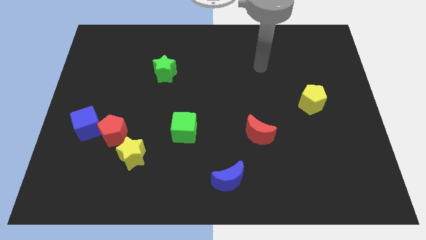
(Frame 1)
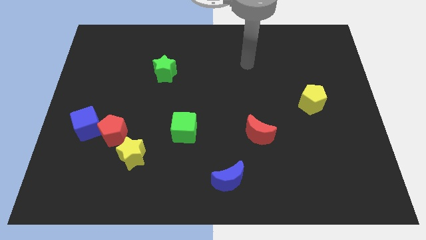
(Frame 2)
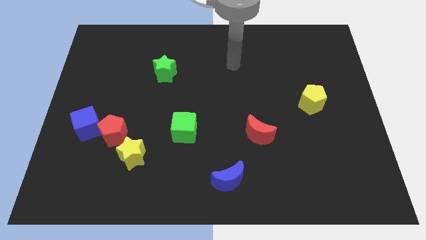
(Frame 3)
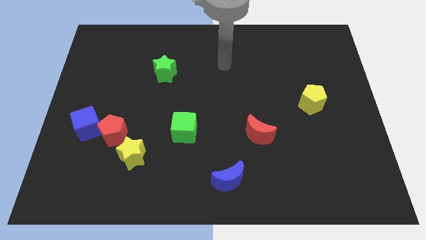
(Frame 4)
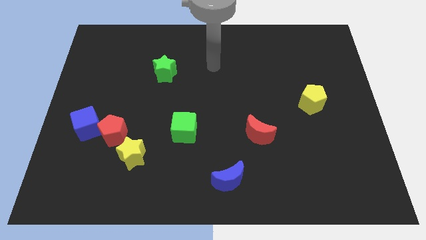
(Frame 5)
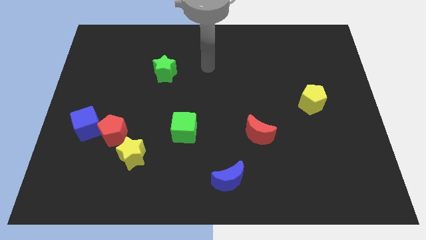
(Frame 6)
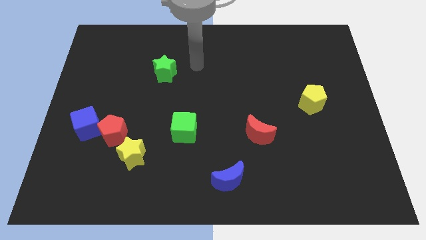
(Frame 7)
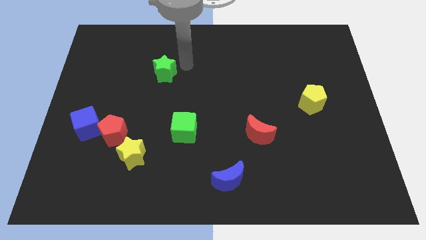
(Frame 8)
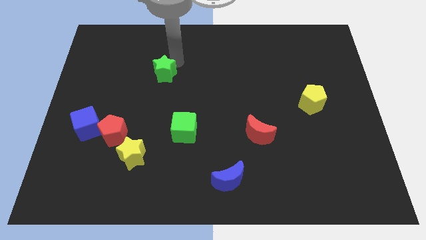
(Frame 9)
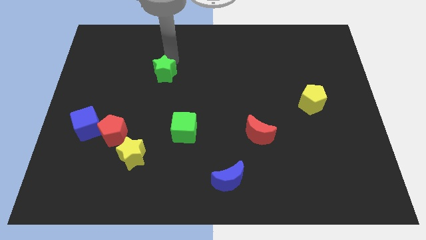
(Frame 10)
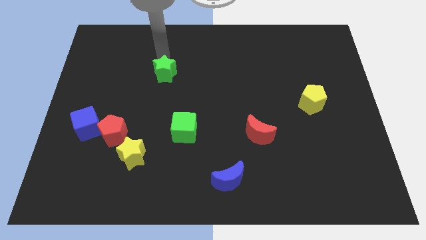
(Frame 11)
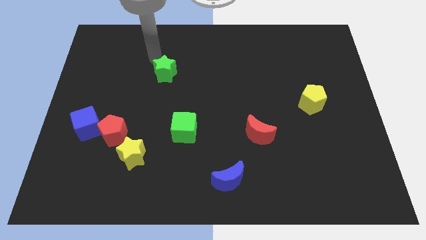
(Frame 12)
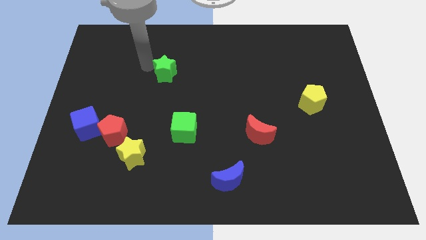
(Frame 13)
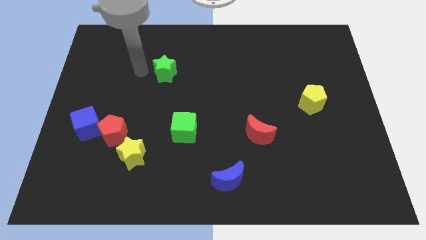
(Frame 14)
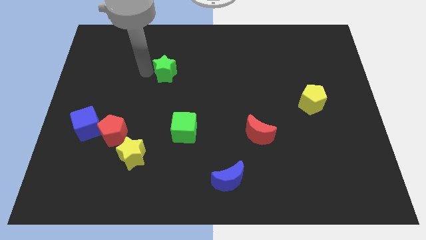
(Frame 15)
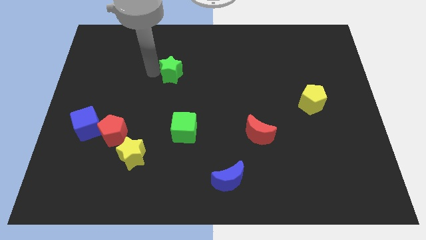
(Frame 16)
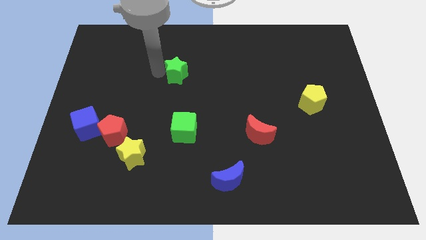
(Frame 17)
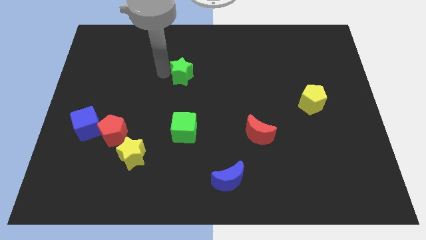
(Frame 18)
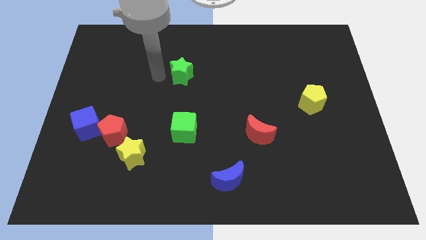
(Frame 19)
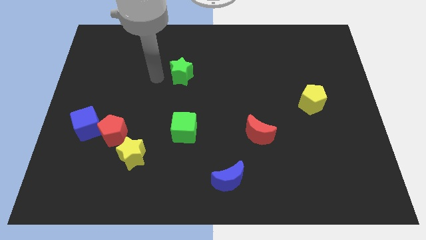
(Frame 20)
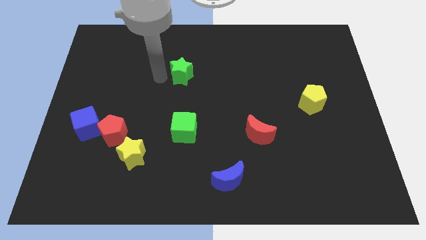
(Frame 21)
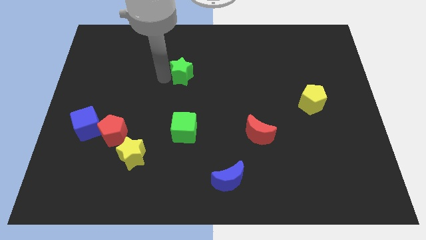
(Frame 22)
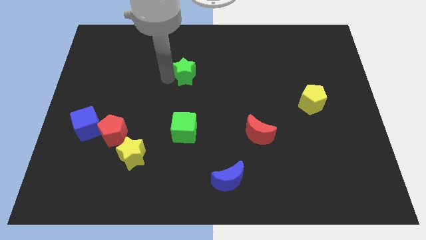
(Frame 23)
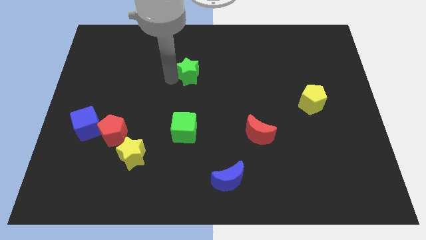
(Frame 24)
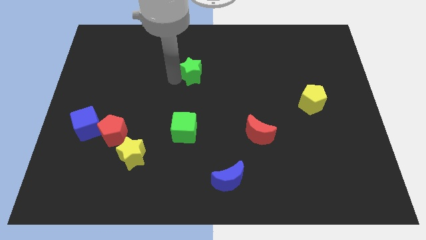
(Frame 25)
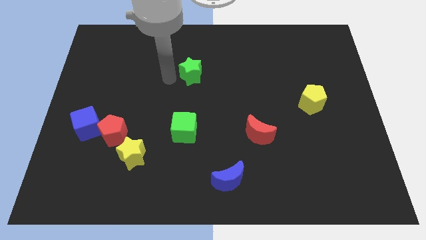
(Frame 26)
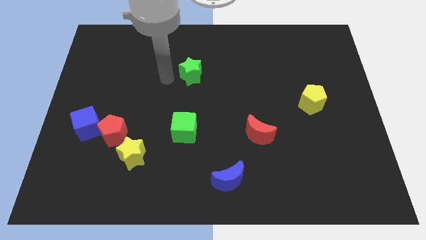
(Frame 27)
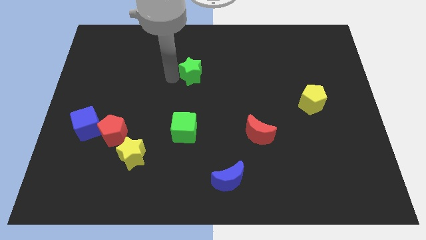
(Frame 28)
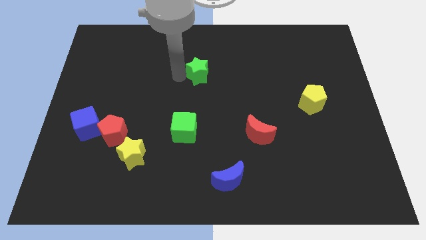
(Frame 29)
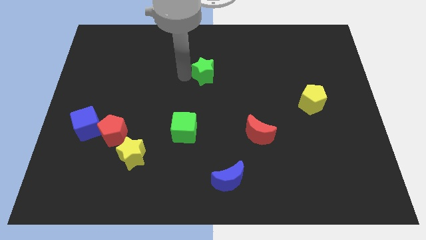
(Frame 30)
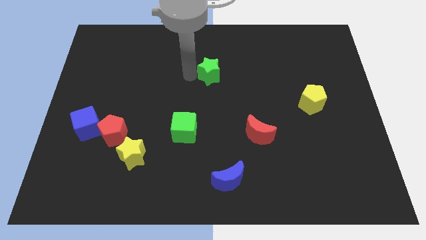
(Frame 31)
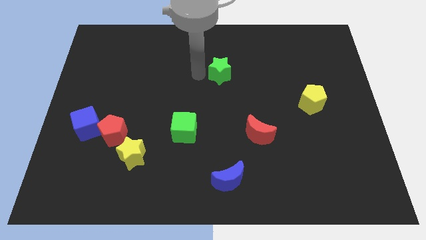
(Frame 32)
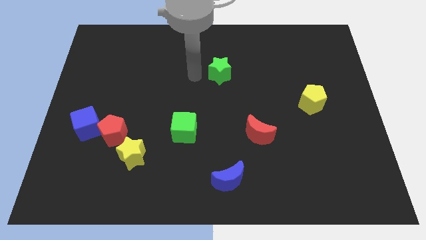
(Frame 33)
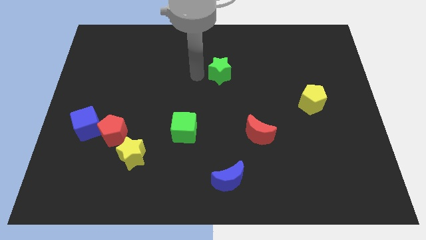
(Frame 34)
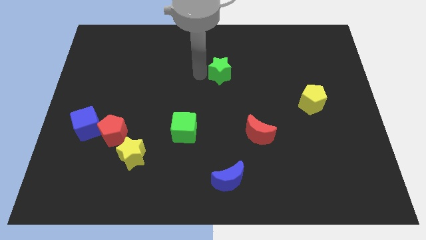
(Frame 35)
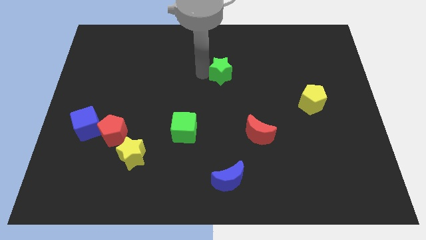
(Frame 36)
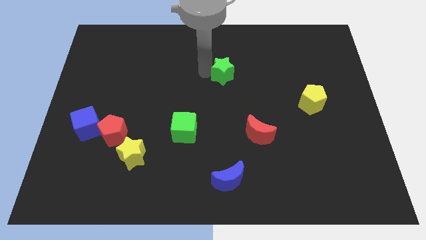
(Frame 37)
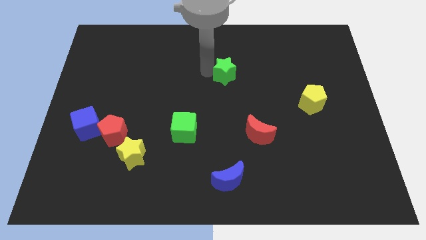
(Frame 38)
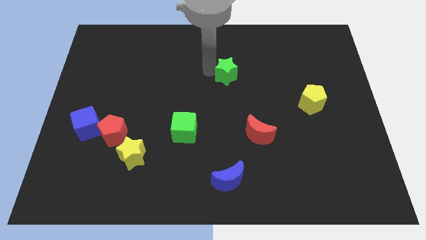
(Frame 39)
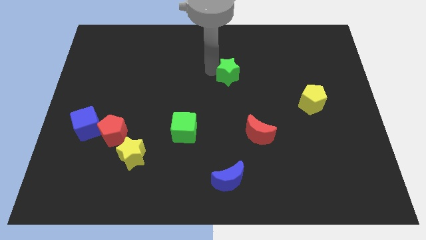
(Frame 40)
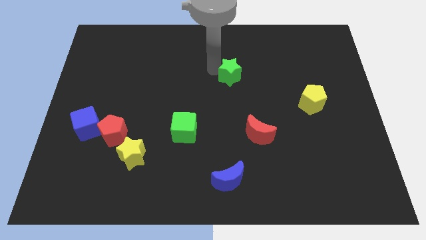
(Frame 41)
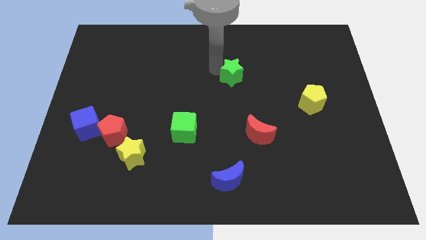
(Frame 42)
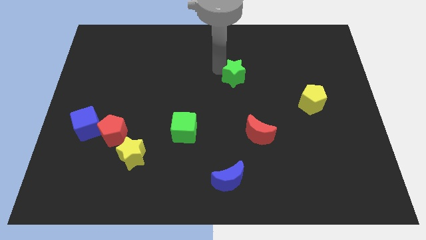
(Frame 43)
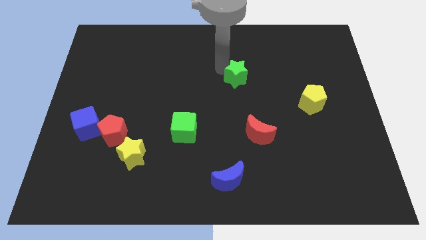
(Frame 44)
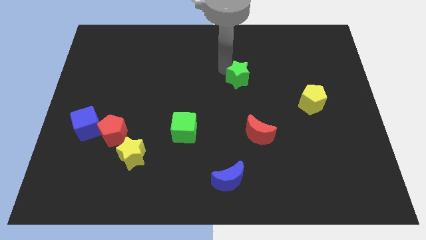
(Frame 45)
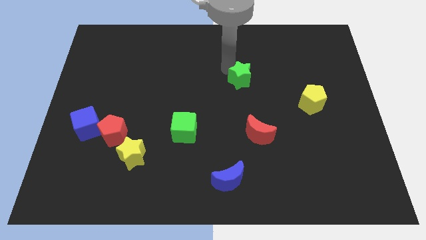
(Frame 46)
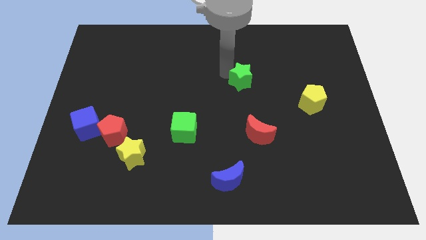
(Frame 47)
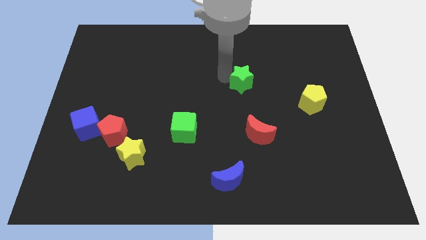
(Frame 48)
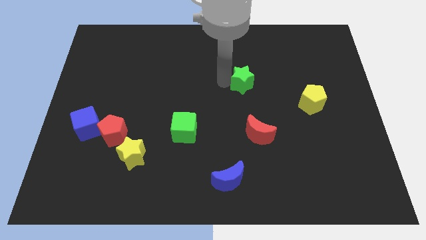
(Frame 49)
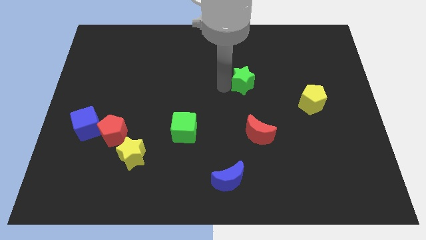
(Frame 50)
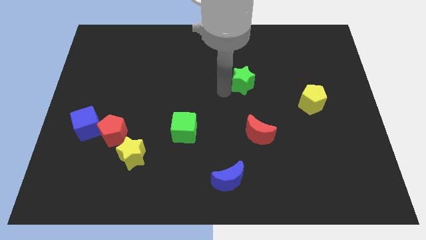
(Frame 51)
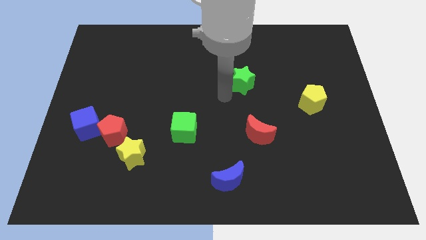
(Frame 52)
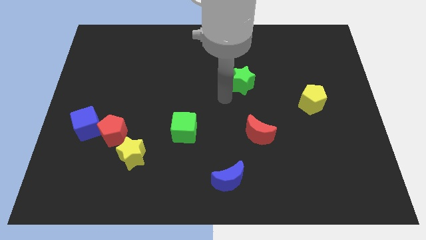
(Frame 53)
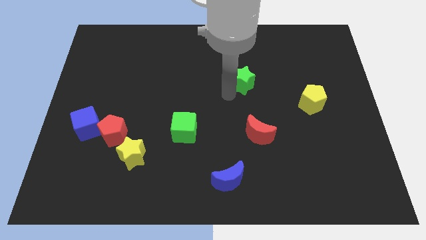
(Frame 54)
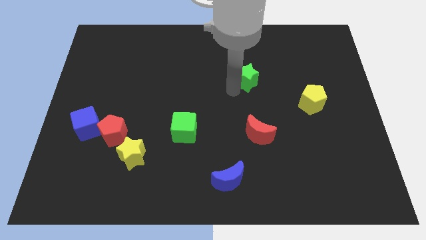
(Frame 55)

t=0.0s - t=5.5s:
push the green star right

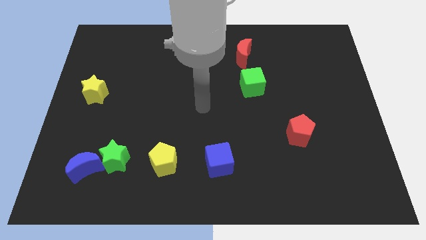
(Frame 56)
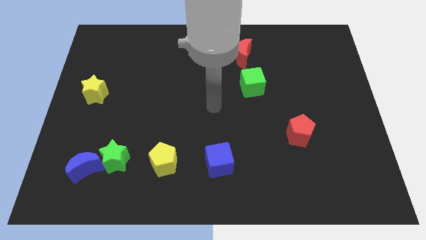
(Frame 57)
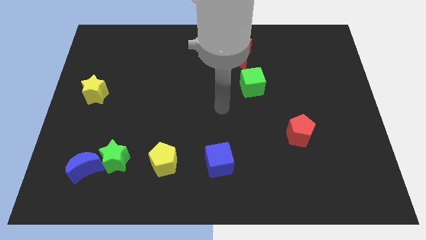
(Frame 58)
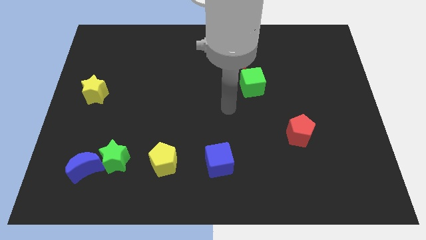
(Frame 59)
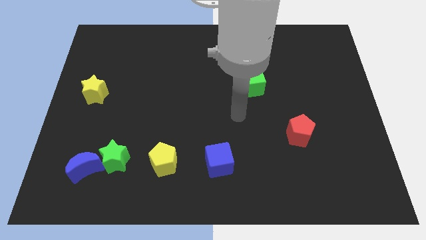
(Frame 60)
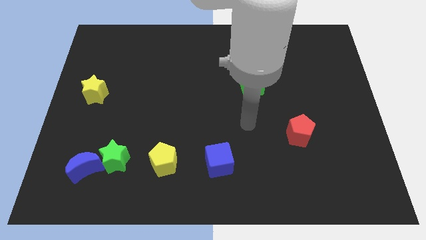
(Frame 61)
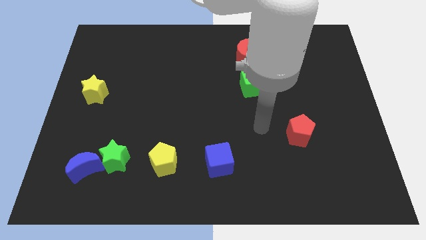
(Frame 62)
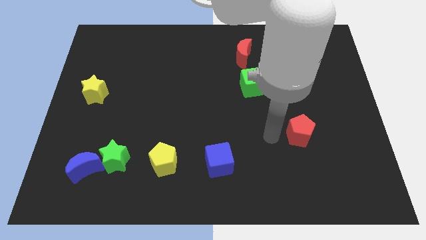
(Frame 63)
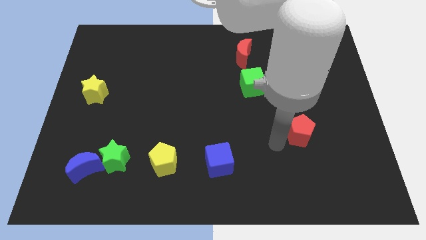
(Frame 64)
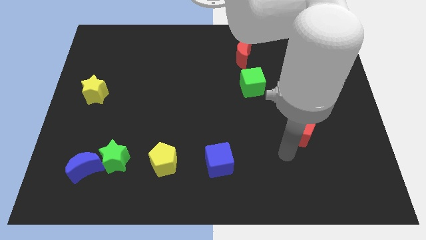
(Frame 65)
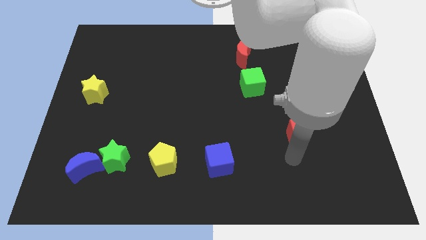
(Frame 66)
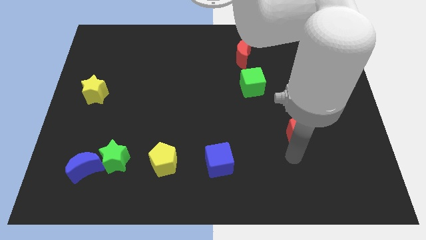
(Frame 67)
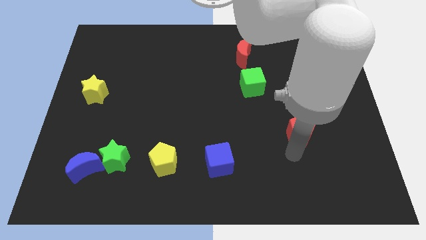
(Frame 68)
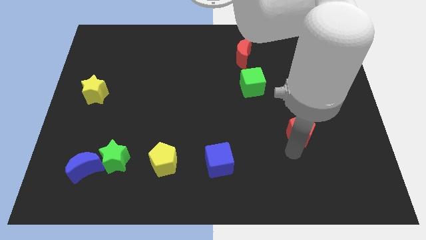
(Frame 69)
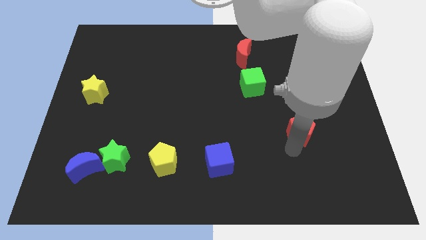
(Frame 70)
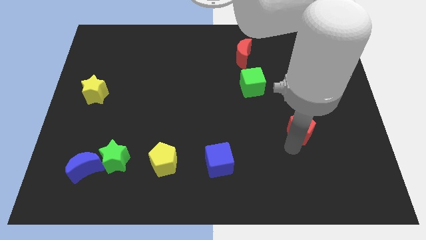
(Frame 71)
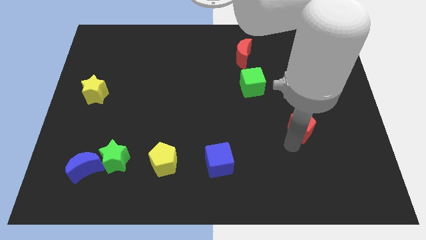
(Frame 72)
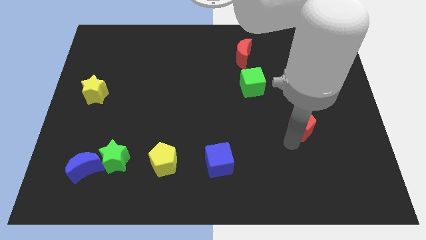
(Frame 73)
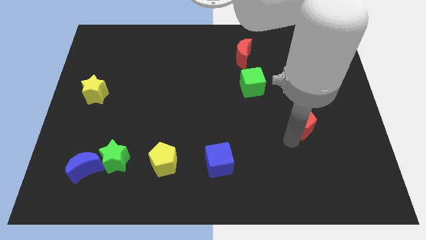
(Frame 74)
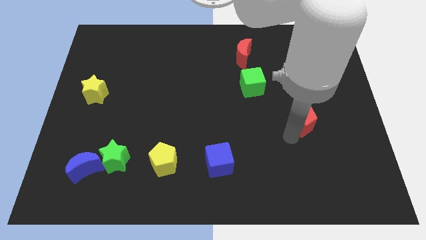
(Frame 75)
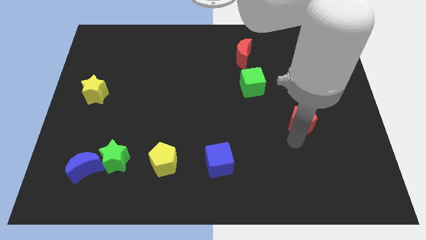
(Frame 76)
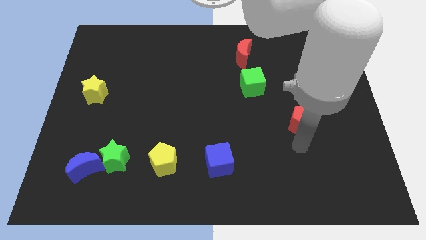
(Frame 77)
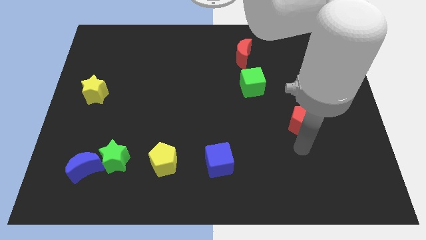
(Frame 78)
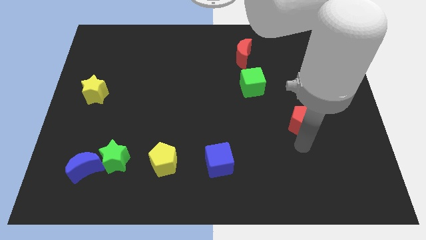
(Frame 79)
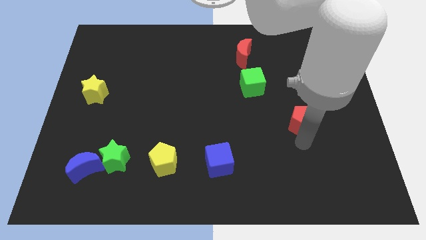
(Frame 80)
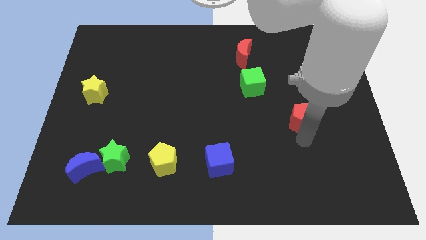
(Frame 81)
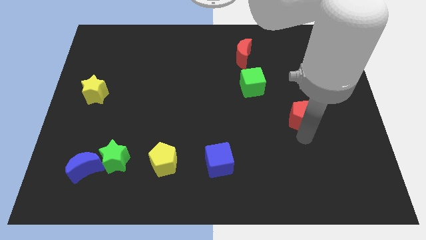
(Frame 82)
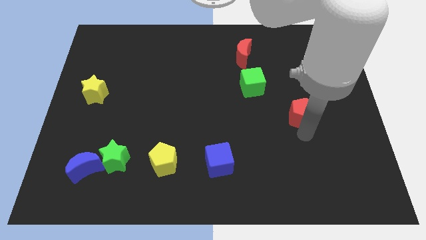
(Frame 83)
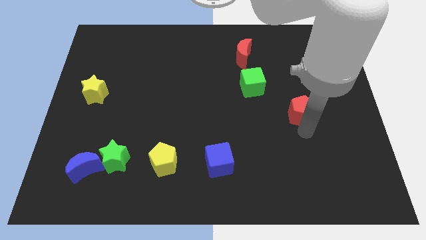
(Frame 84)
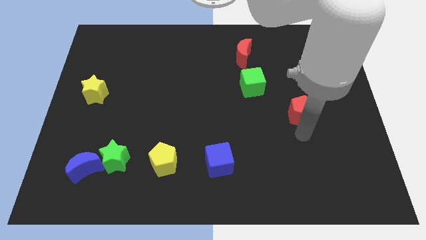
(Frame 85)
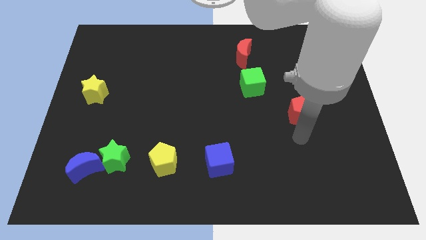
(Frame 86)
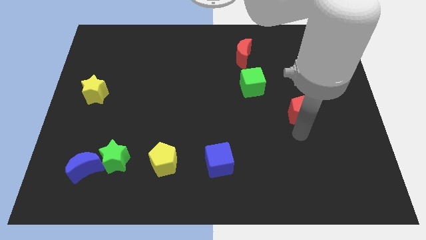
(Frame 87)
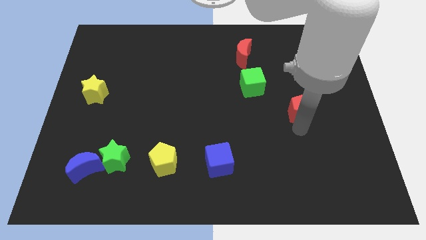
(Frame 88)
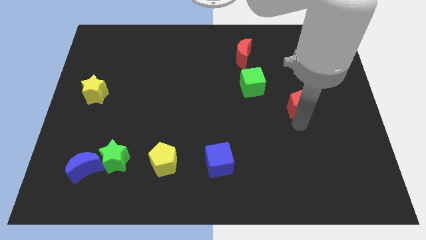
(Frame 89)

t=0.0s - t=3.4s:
slide the red pentagon up a little bit
